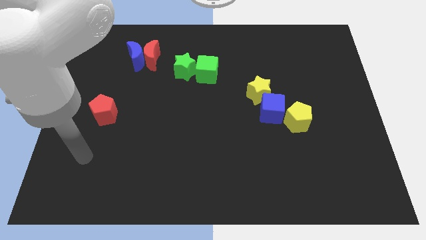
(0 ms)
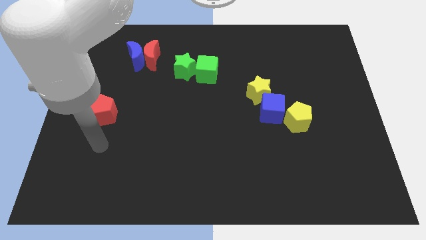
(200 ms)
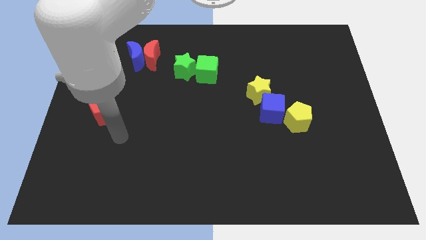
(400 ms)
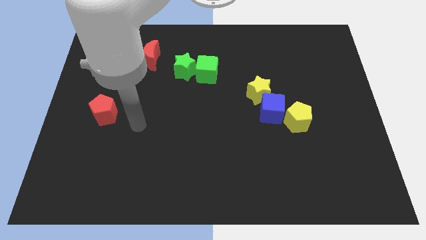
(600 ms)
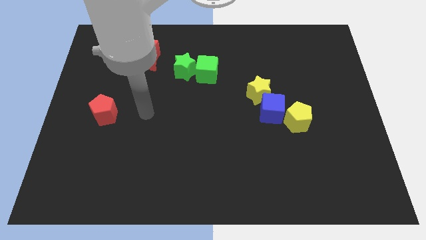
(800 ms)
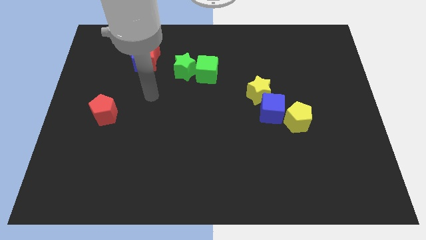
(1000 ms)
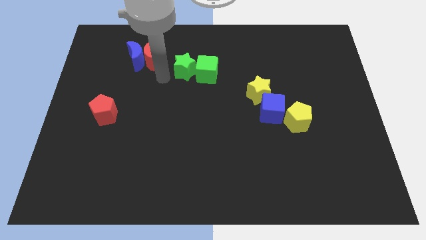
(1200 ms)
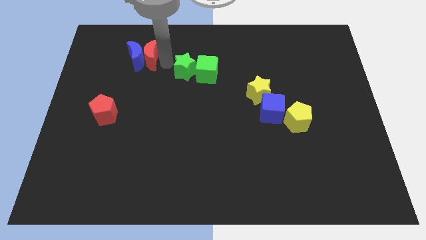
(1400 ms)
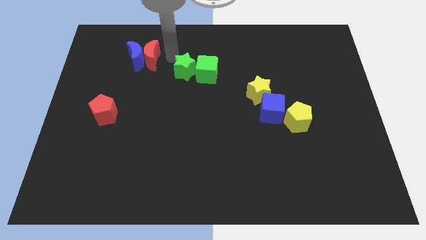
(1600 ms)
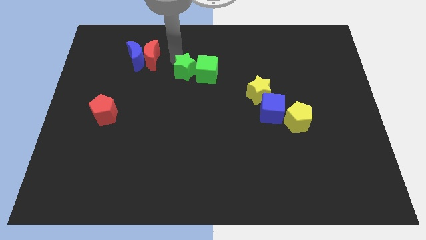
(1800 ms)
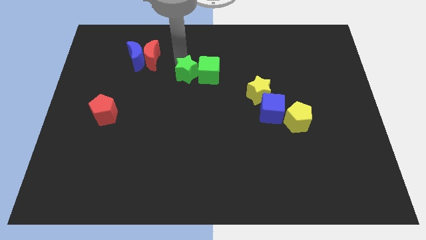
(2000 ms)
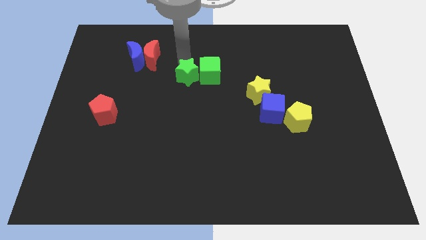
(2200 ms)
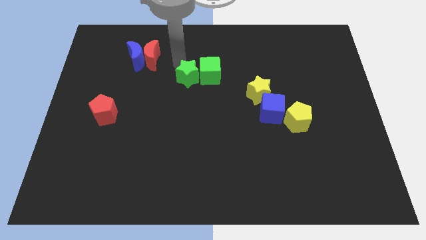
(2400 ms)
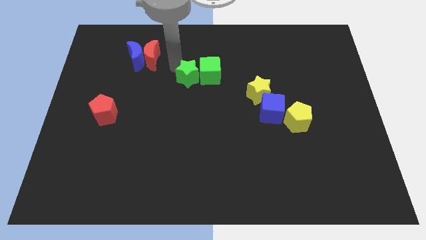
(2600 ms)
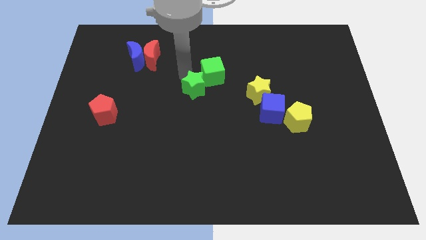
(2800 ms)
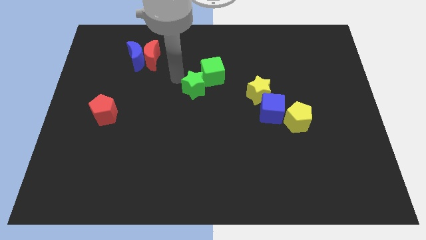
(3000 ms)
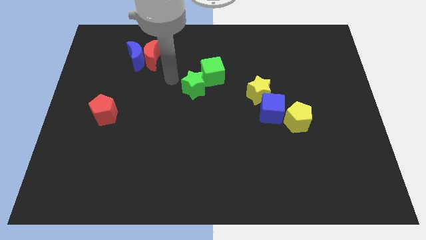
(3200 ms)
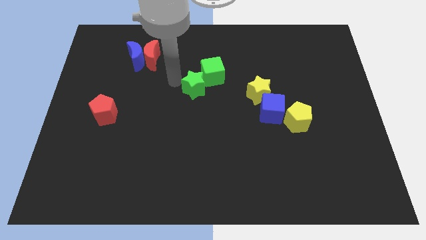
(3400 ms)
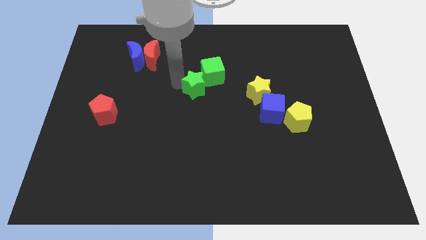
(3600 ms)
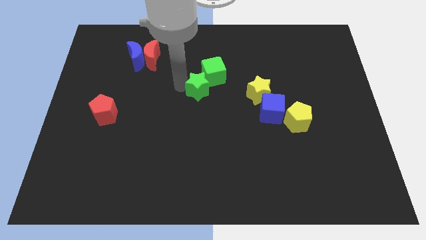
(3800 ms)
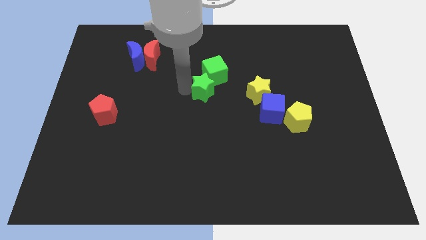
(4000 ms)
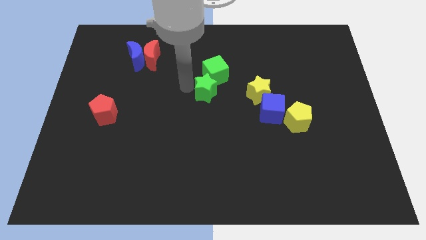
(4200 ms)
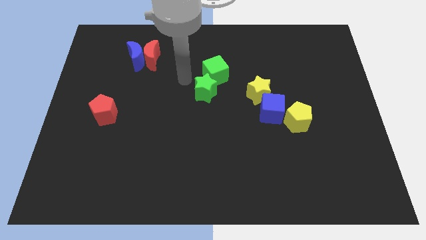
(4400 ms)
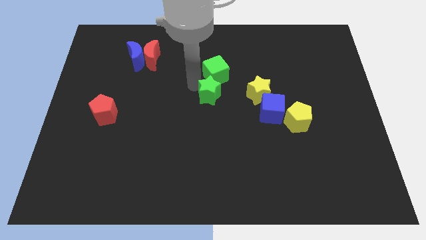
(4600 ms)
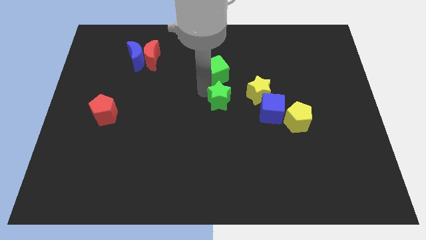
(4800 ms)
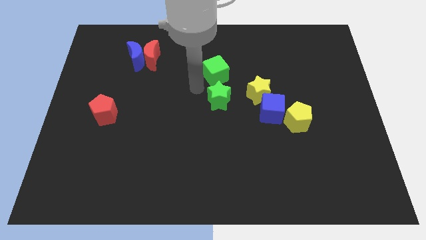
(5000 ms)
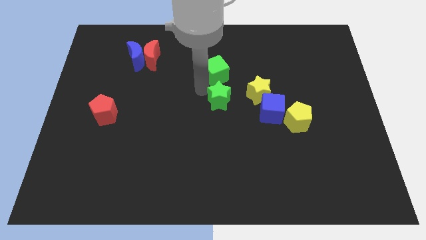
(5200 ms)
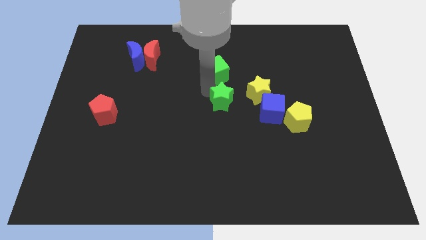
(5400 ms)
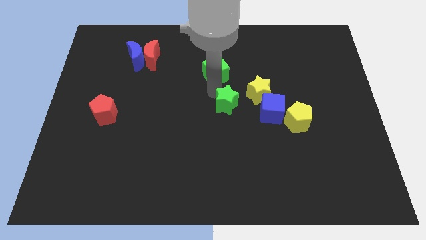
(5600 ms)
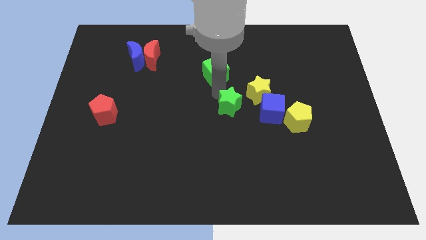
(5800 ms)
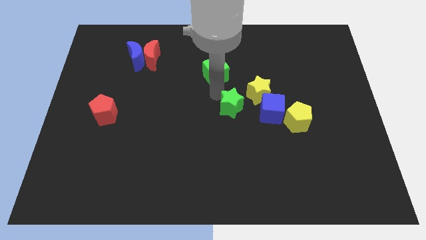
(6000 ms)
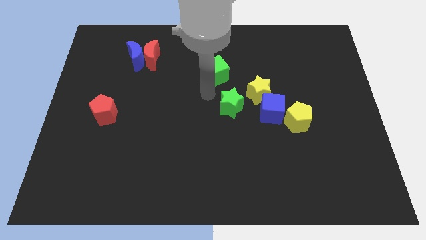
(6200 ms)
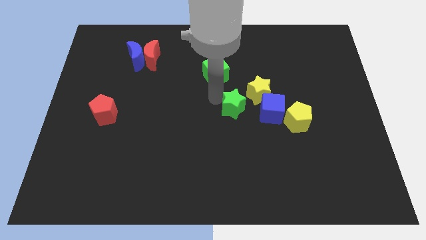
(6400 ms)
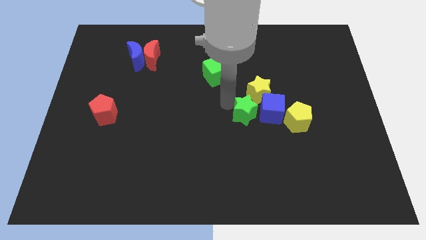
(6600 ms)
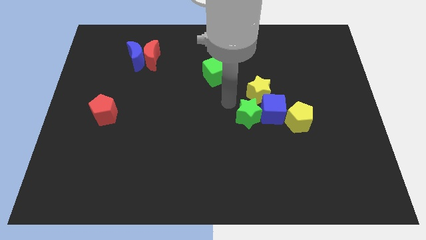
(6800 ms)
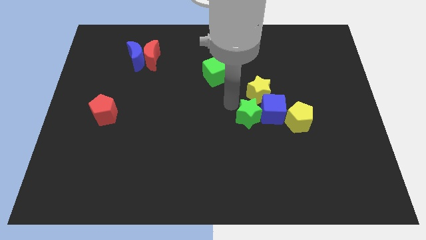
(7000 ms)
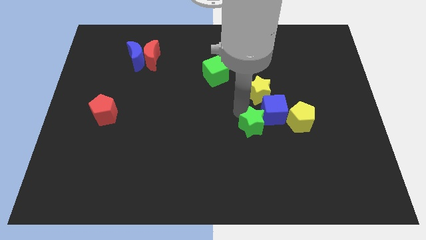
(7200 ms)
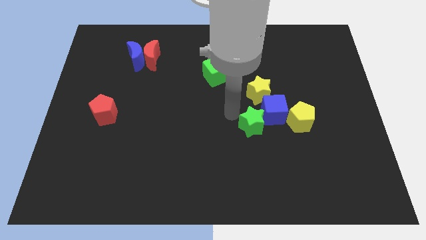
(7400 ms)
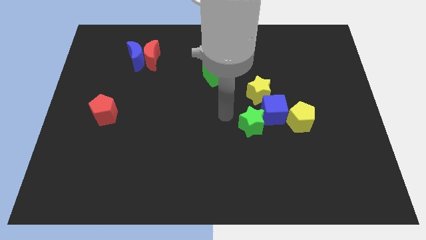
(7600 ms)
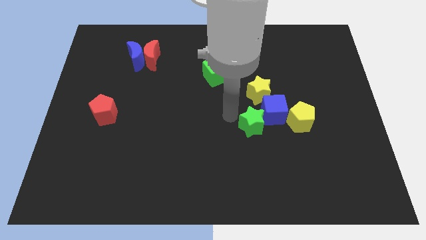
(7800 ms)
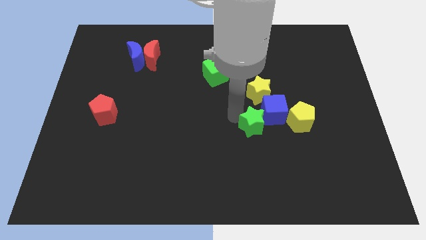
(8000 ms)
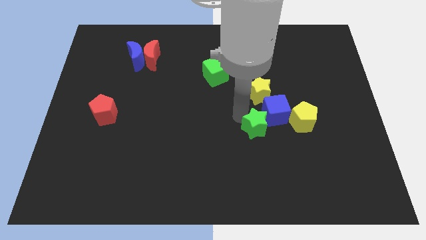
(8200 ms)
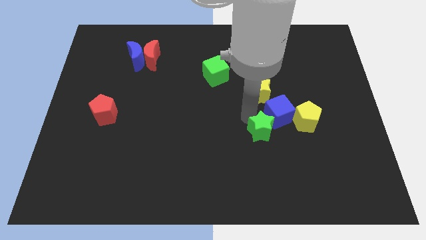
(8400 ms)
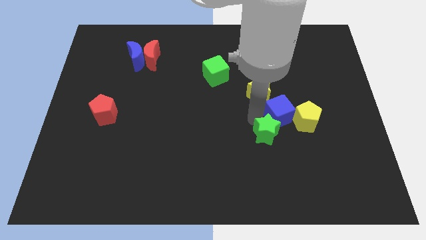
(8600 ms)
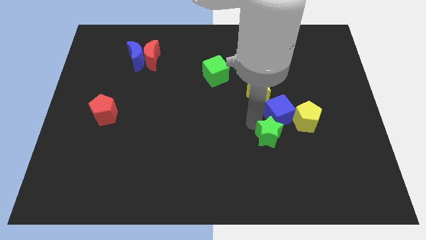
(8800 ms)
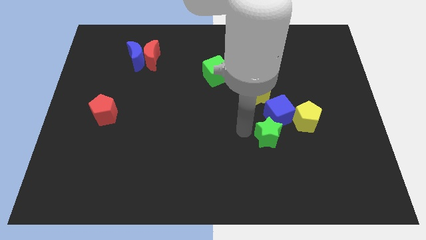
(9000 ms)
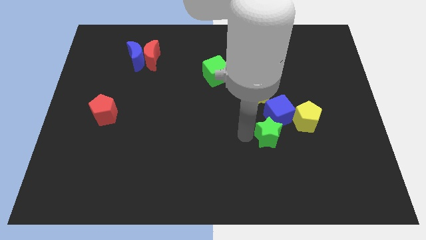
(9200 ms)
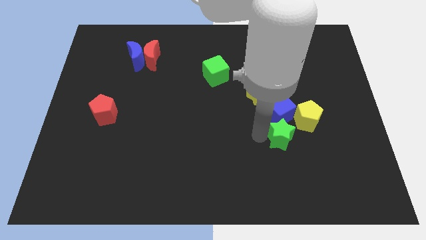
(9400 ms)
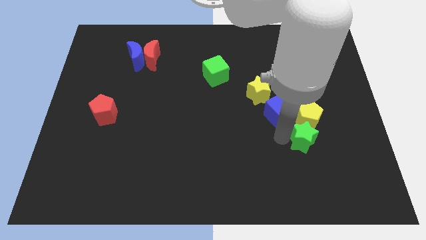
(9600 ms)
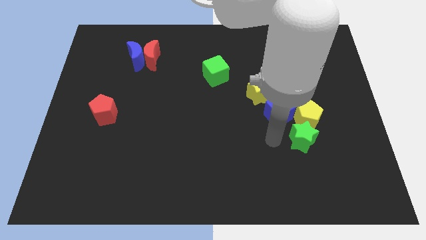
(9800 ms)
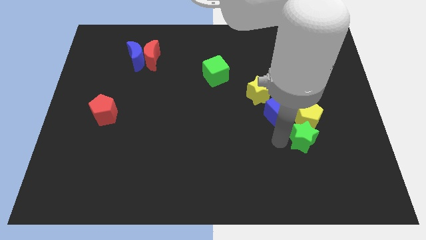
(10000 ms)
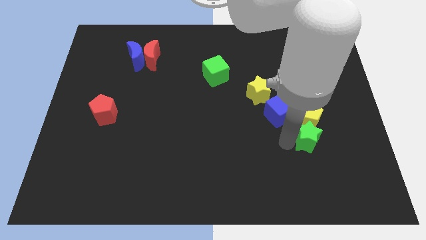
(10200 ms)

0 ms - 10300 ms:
move the green star to the bottom right of the yellow pentagon

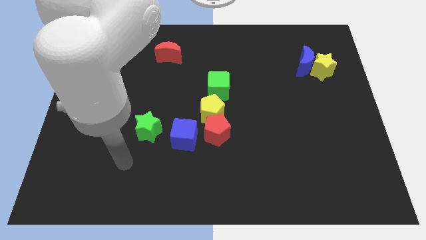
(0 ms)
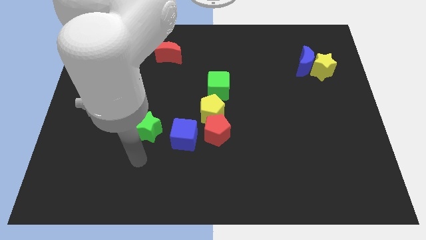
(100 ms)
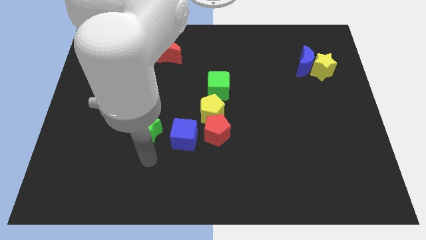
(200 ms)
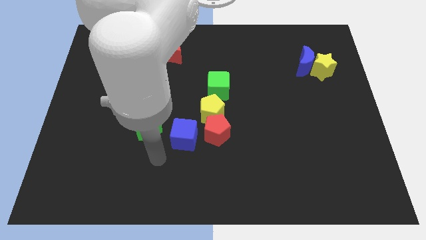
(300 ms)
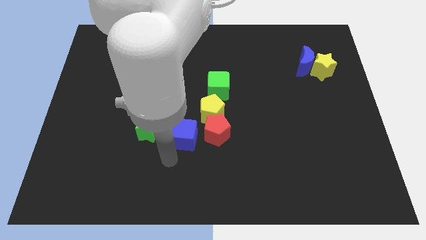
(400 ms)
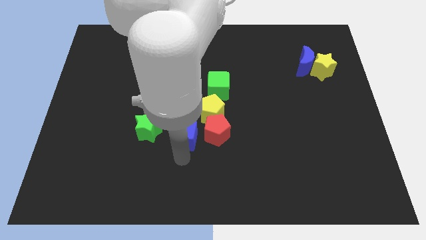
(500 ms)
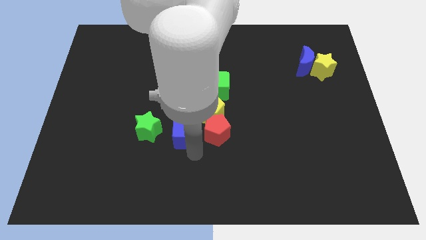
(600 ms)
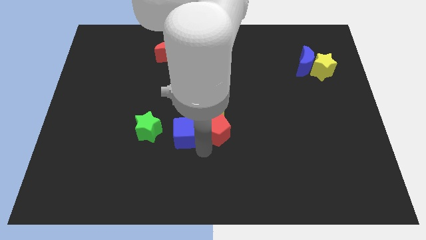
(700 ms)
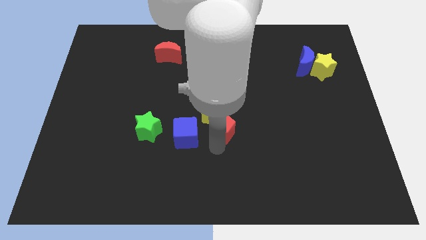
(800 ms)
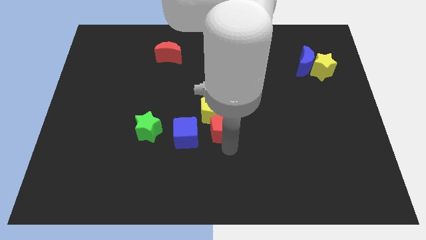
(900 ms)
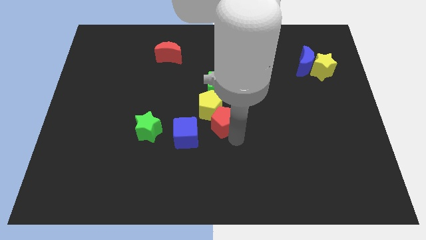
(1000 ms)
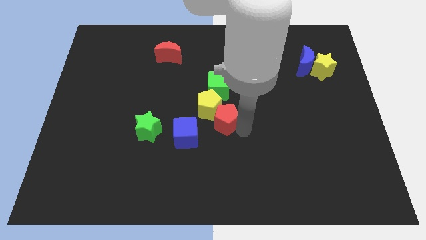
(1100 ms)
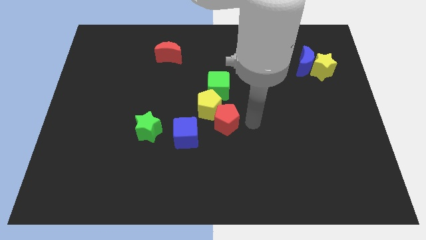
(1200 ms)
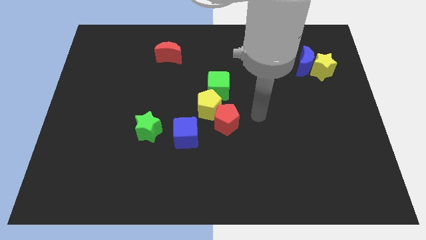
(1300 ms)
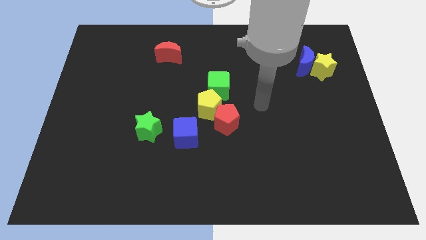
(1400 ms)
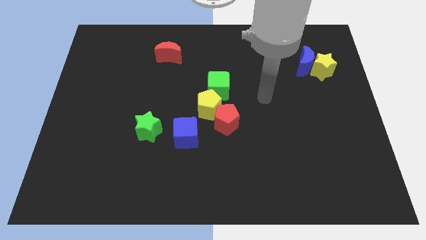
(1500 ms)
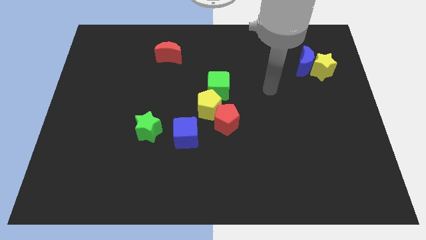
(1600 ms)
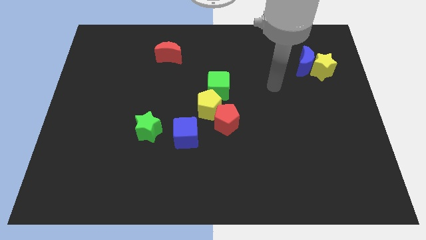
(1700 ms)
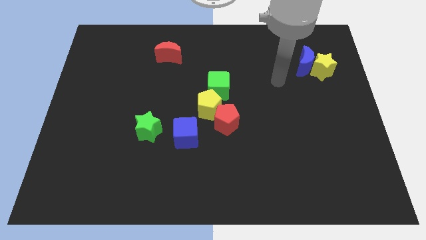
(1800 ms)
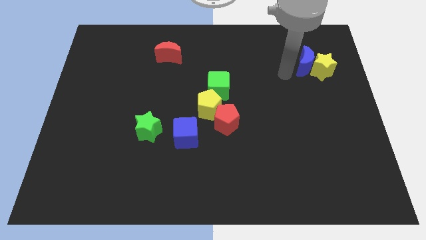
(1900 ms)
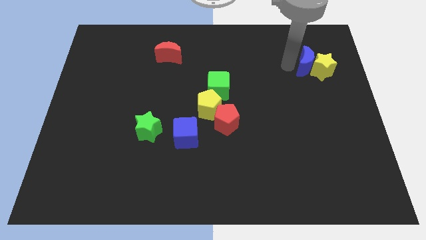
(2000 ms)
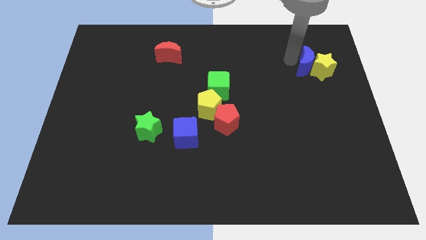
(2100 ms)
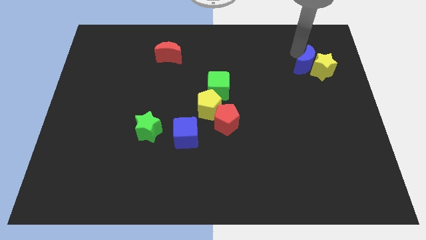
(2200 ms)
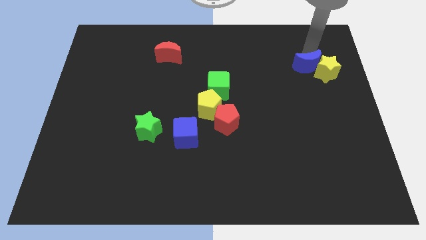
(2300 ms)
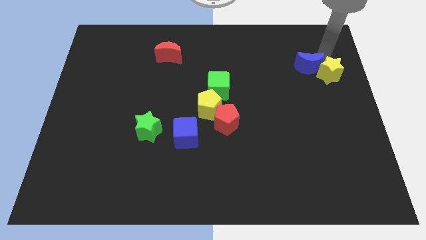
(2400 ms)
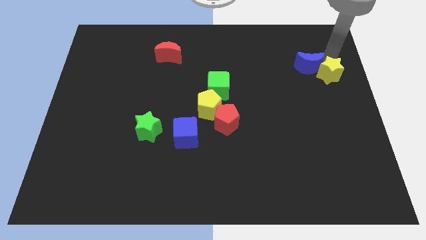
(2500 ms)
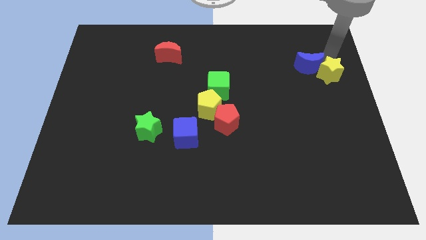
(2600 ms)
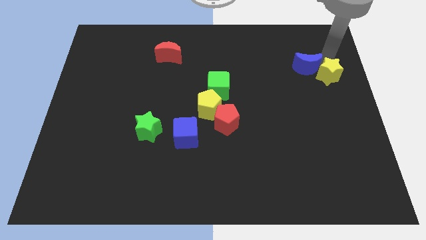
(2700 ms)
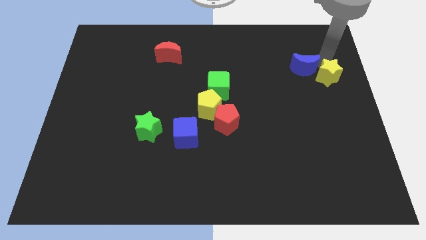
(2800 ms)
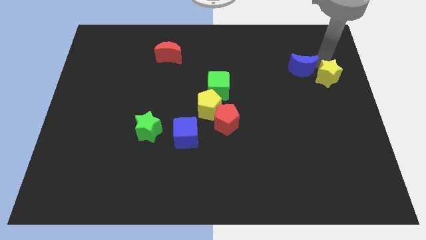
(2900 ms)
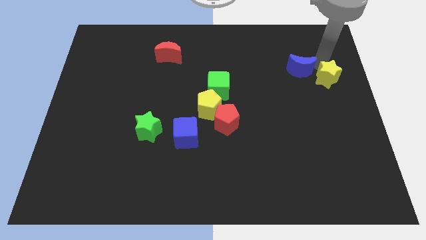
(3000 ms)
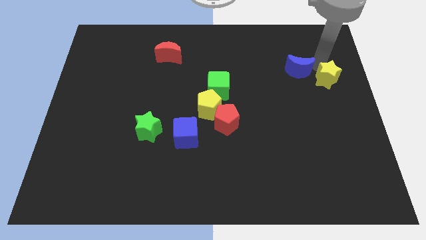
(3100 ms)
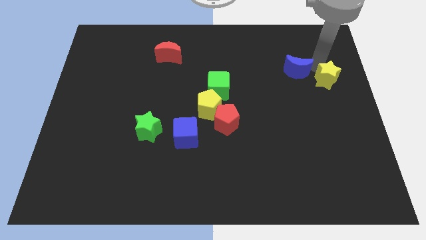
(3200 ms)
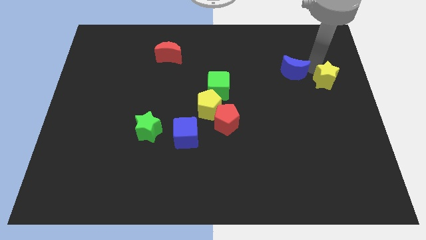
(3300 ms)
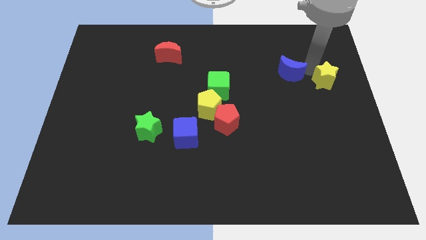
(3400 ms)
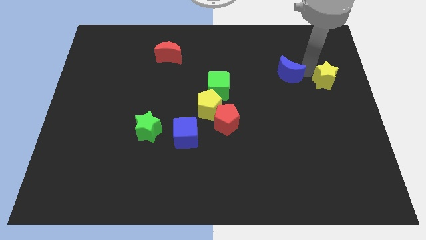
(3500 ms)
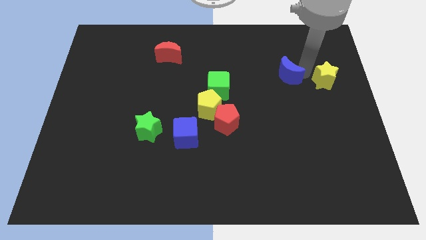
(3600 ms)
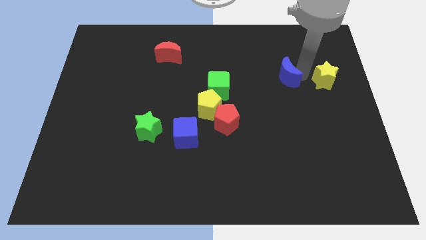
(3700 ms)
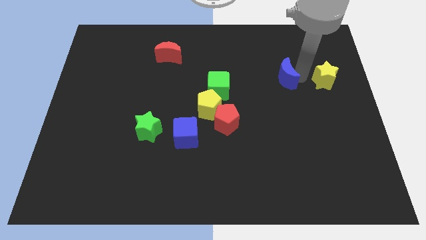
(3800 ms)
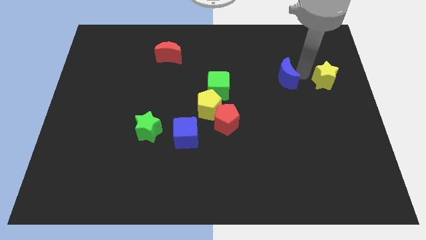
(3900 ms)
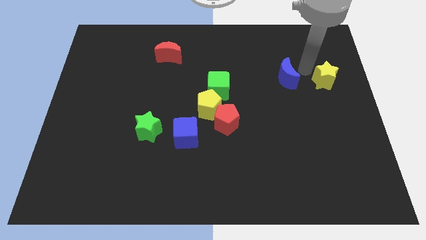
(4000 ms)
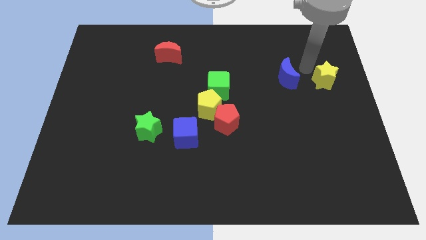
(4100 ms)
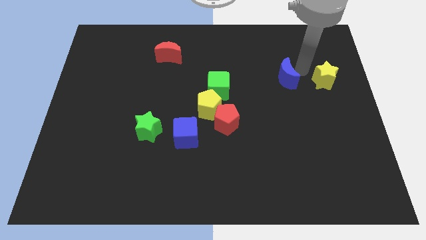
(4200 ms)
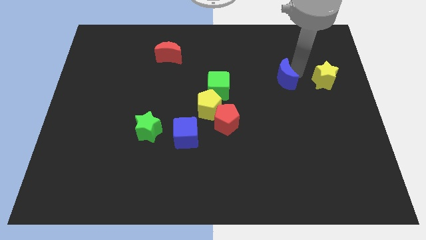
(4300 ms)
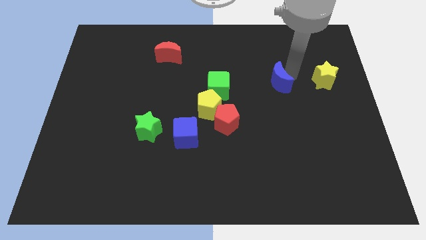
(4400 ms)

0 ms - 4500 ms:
move the blue moon right of the green cube
